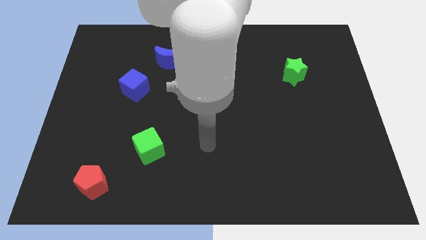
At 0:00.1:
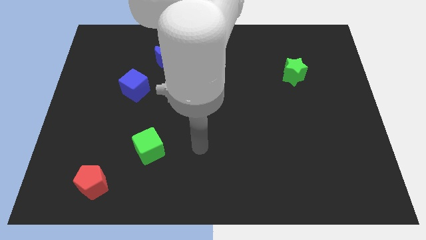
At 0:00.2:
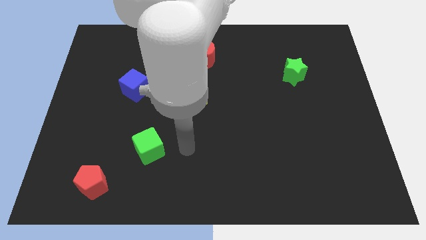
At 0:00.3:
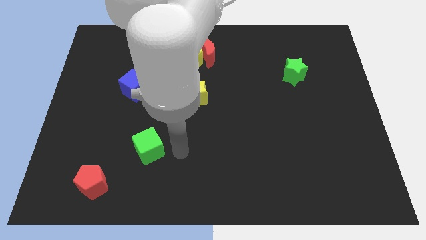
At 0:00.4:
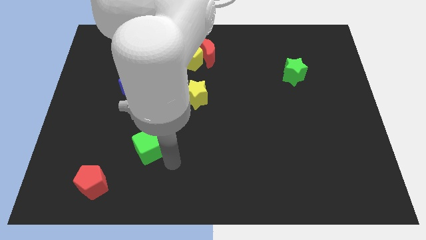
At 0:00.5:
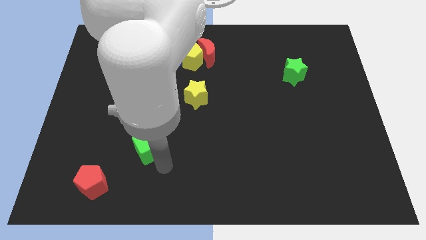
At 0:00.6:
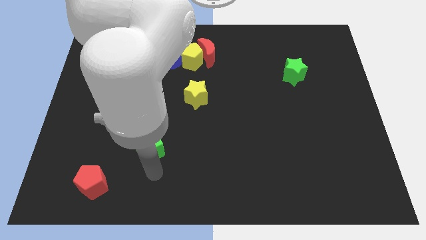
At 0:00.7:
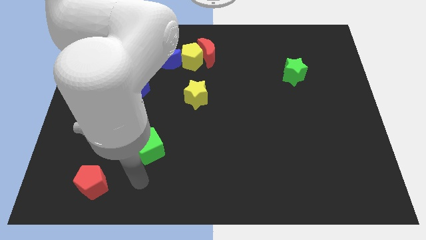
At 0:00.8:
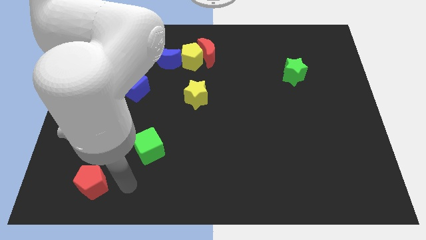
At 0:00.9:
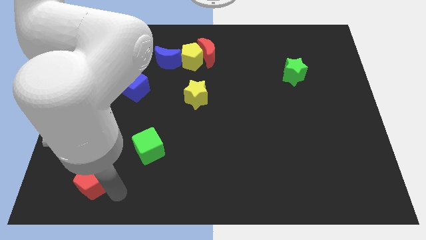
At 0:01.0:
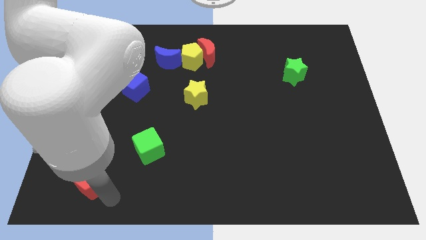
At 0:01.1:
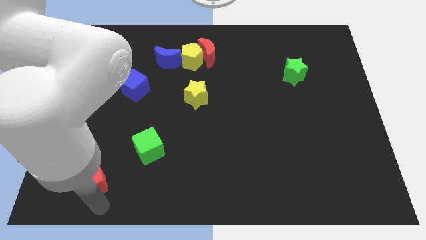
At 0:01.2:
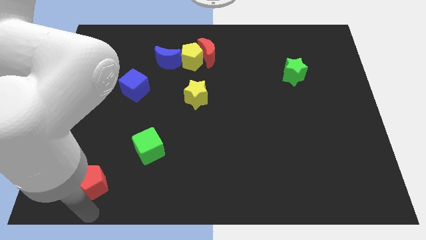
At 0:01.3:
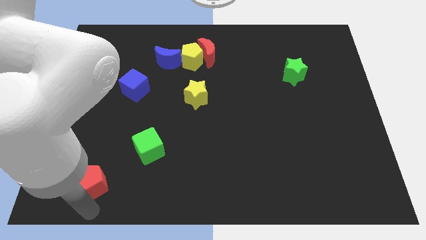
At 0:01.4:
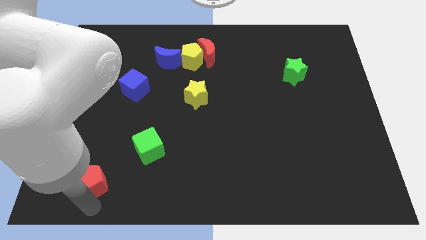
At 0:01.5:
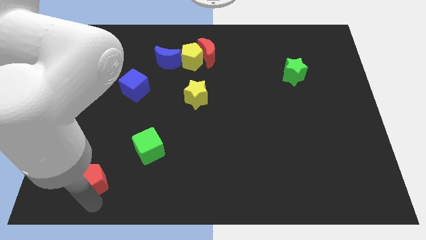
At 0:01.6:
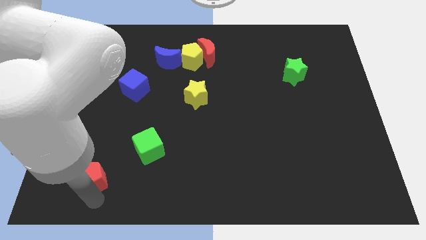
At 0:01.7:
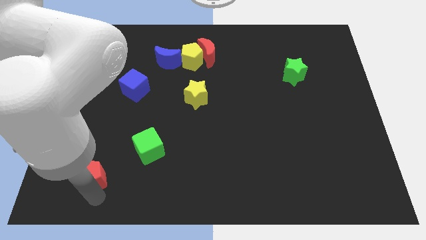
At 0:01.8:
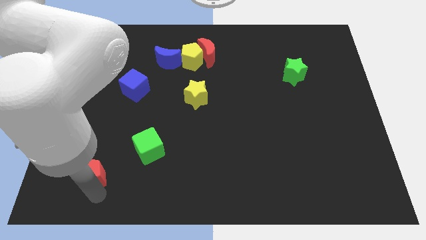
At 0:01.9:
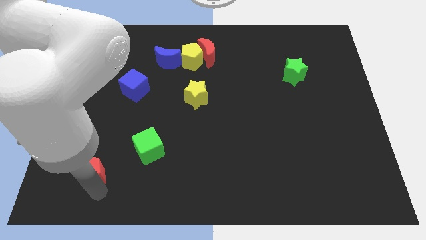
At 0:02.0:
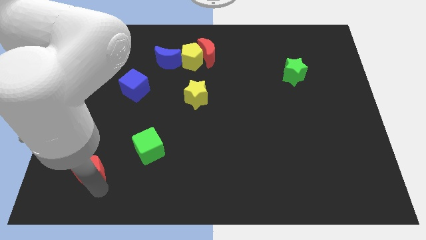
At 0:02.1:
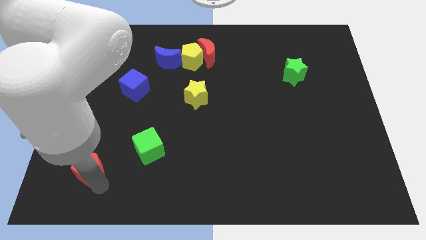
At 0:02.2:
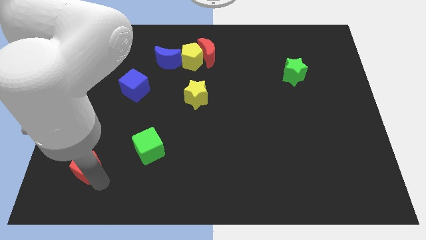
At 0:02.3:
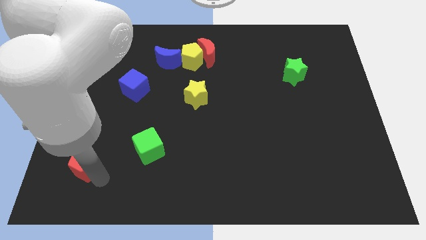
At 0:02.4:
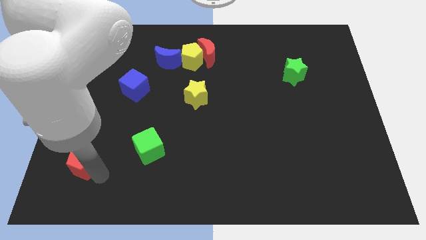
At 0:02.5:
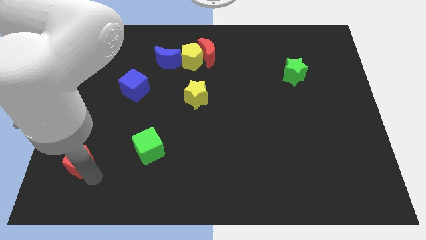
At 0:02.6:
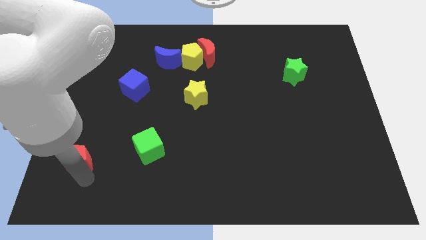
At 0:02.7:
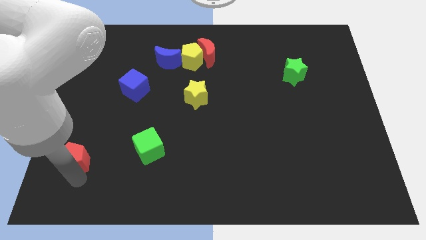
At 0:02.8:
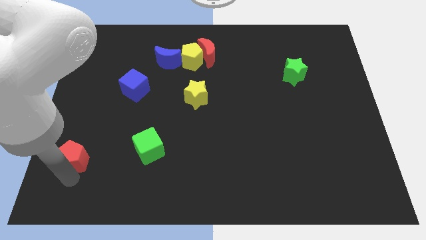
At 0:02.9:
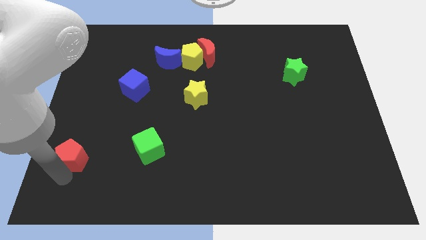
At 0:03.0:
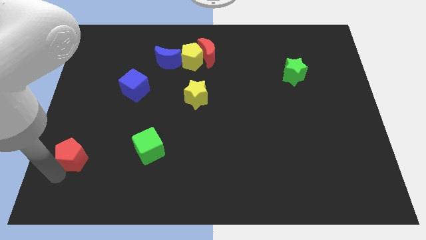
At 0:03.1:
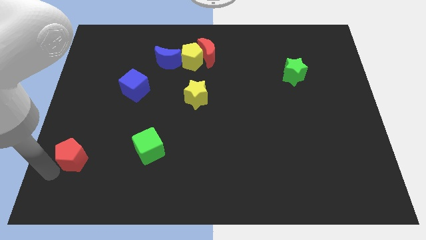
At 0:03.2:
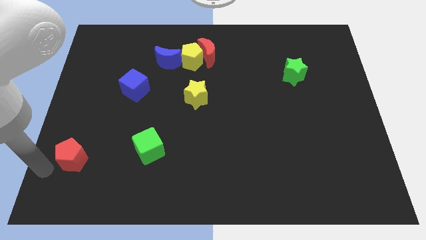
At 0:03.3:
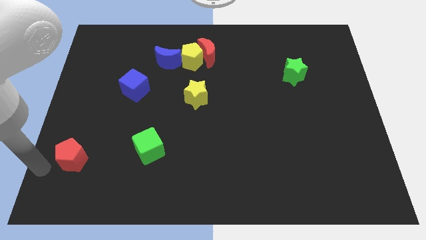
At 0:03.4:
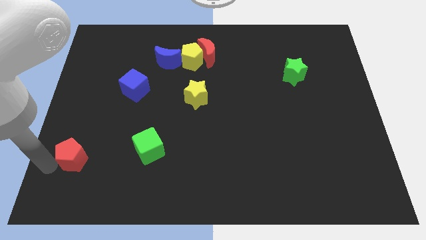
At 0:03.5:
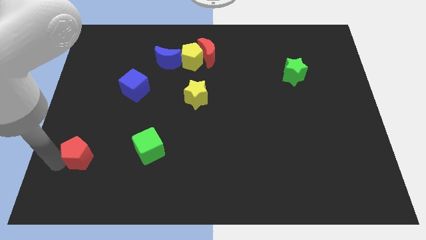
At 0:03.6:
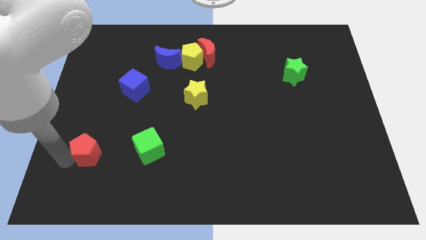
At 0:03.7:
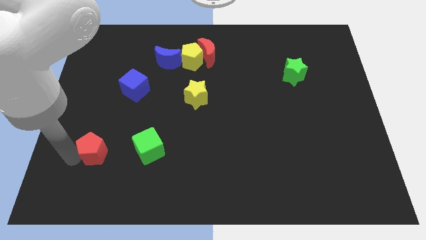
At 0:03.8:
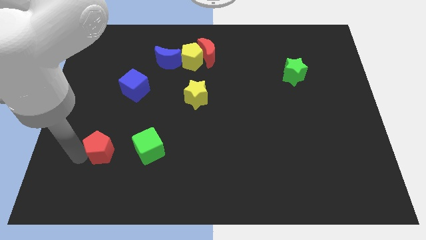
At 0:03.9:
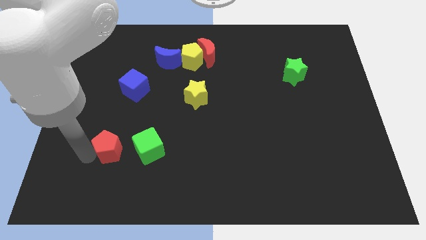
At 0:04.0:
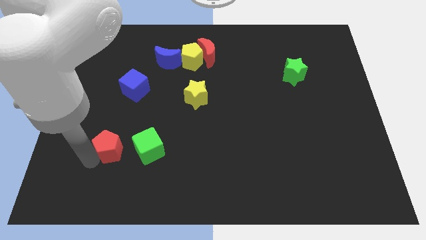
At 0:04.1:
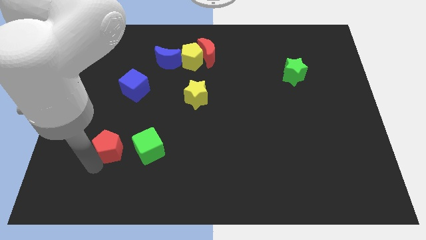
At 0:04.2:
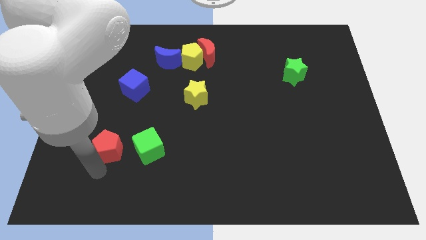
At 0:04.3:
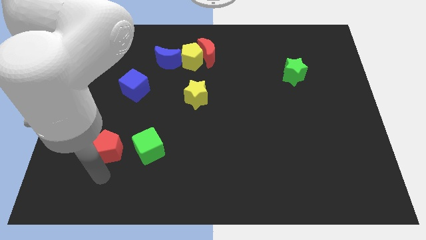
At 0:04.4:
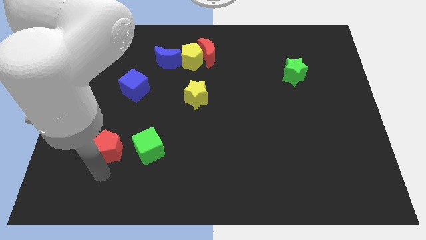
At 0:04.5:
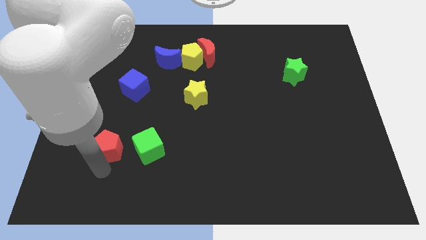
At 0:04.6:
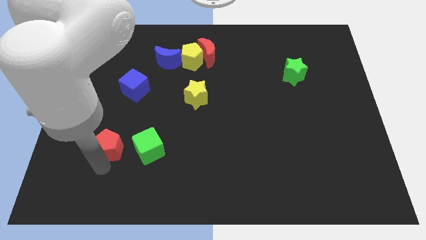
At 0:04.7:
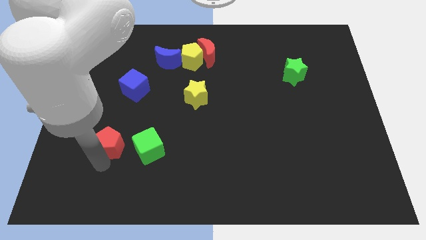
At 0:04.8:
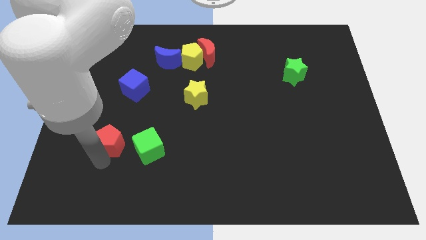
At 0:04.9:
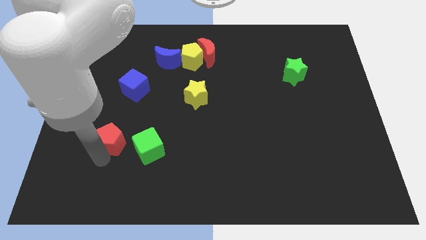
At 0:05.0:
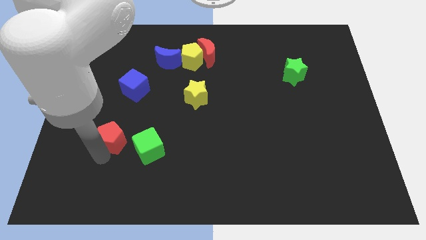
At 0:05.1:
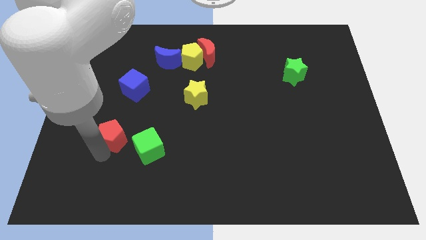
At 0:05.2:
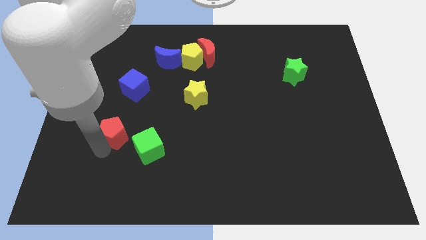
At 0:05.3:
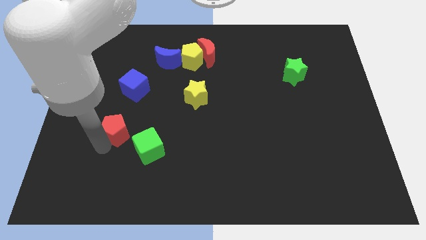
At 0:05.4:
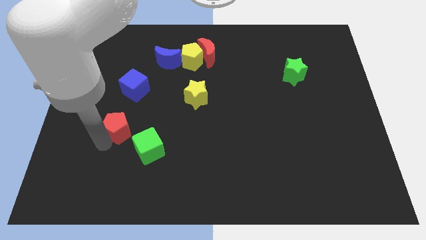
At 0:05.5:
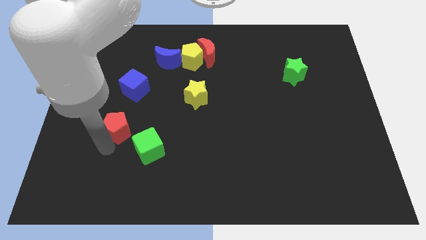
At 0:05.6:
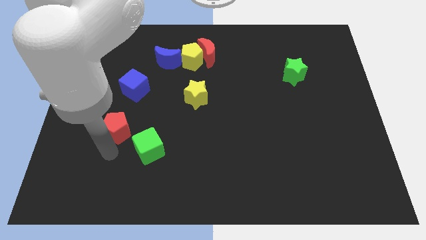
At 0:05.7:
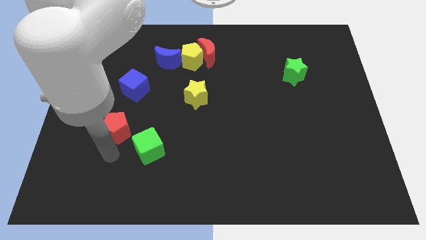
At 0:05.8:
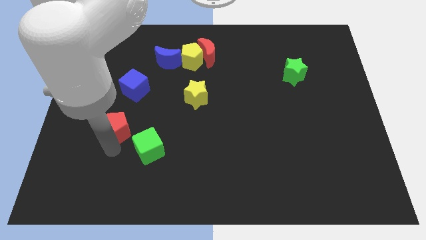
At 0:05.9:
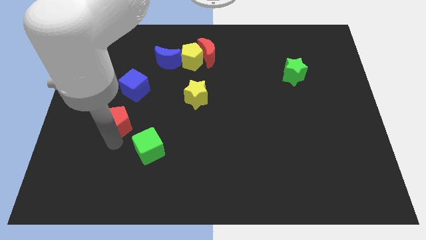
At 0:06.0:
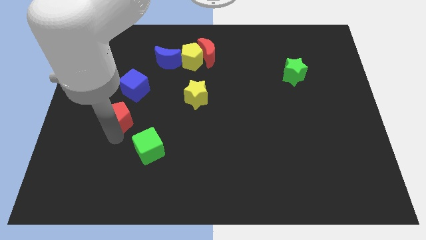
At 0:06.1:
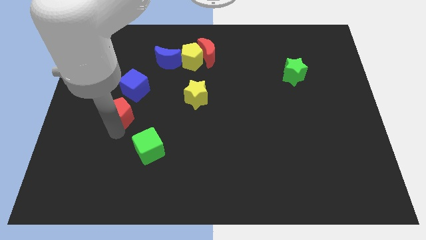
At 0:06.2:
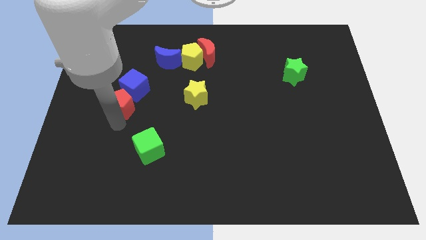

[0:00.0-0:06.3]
slide the red pentagon towards the blue cube

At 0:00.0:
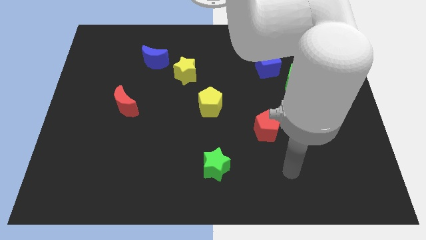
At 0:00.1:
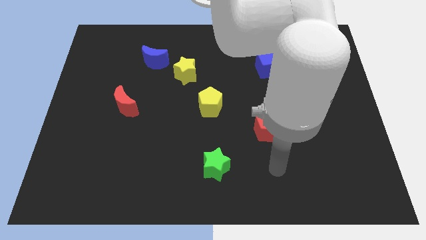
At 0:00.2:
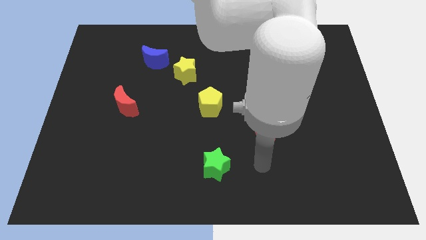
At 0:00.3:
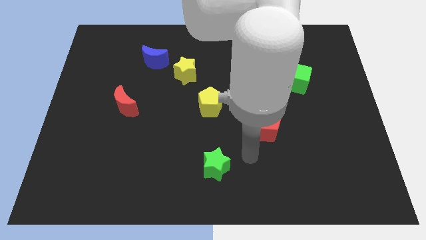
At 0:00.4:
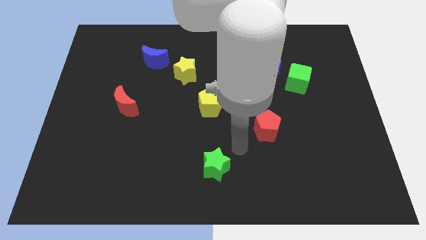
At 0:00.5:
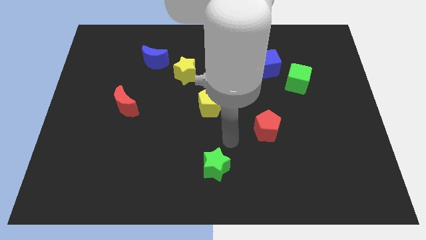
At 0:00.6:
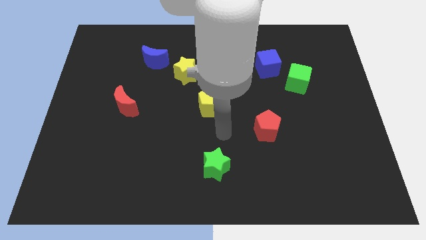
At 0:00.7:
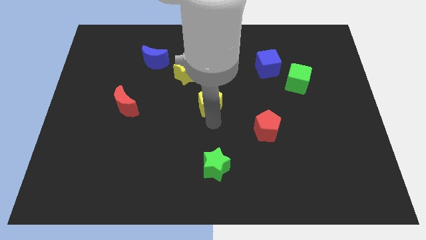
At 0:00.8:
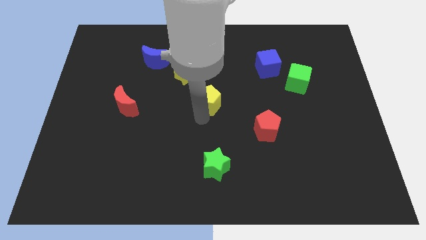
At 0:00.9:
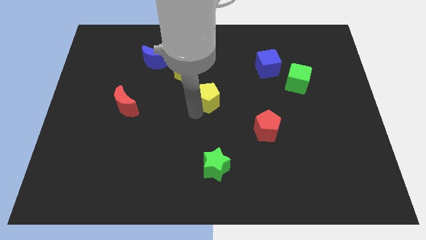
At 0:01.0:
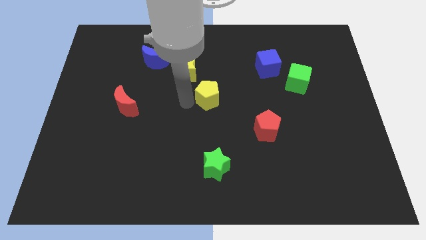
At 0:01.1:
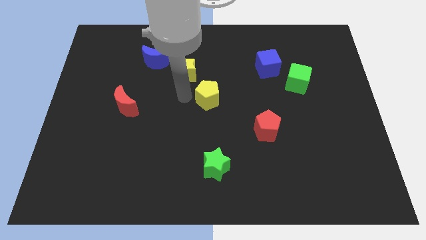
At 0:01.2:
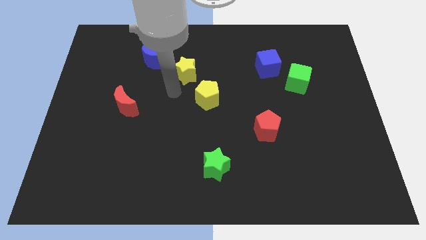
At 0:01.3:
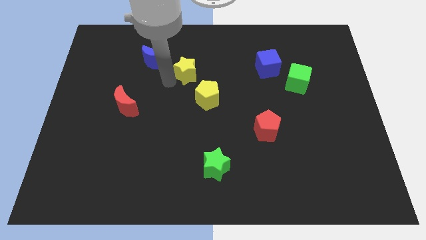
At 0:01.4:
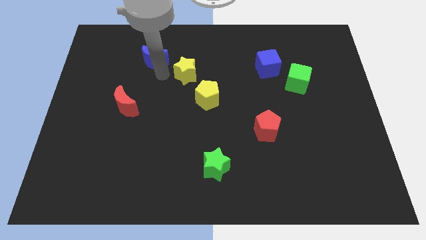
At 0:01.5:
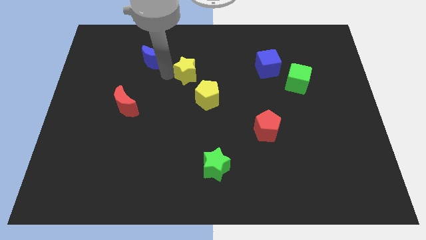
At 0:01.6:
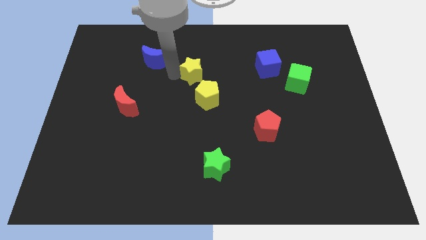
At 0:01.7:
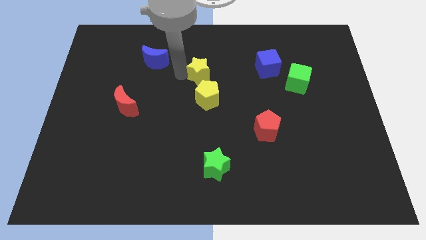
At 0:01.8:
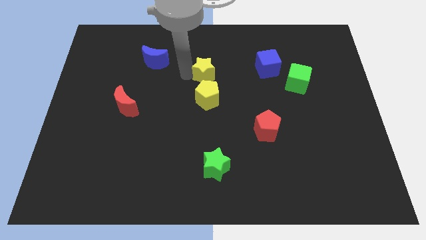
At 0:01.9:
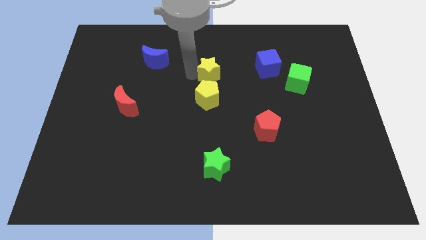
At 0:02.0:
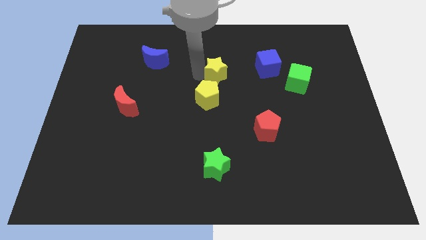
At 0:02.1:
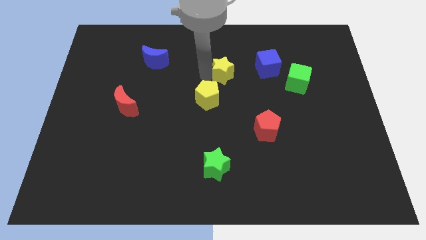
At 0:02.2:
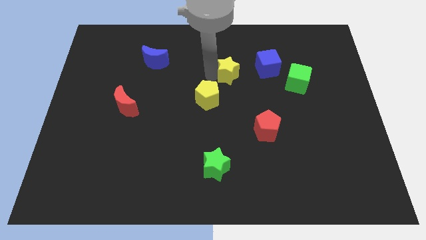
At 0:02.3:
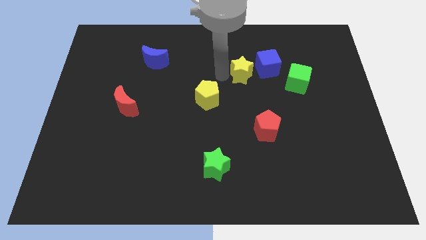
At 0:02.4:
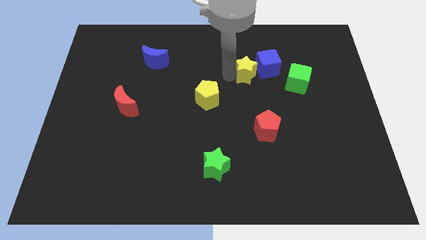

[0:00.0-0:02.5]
slide the yellow star to the blue cube
